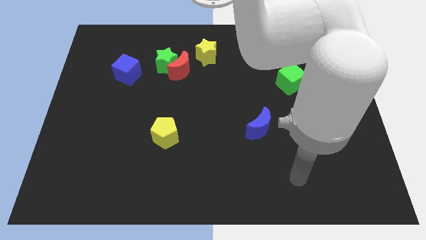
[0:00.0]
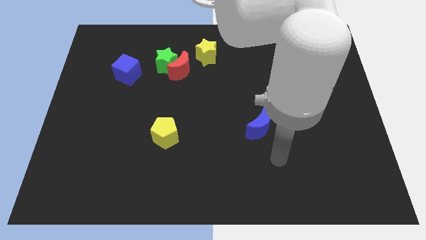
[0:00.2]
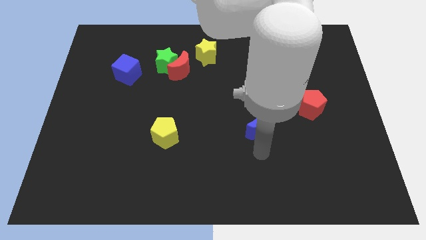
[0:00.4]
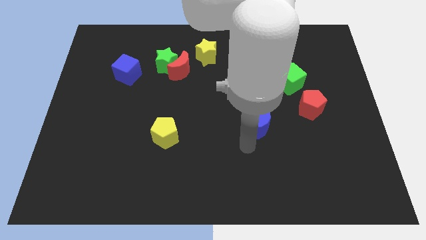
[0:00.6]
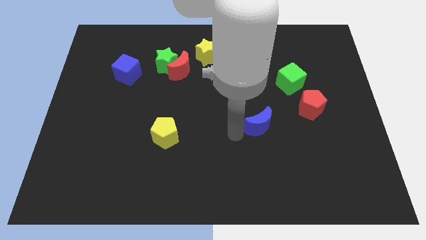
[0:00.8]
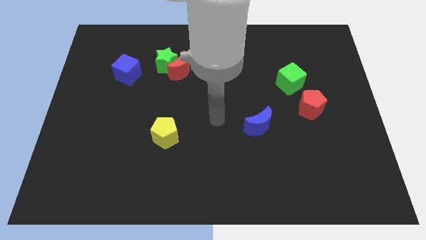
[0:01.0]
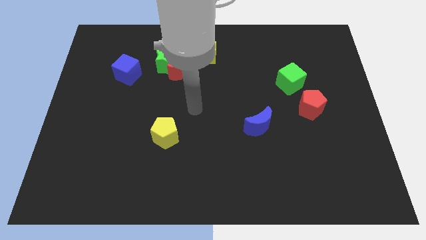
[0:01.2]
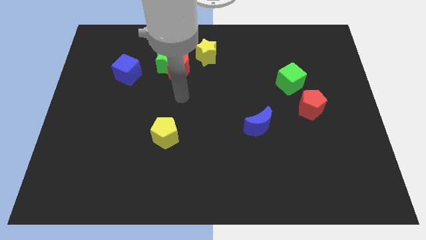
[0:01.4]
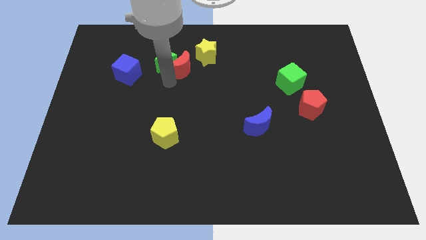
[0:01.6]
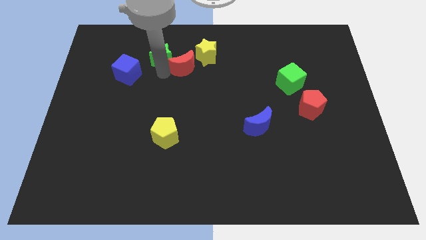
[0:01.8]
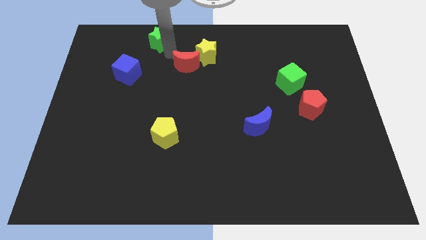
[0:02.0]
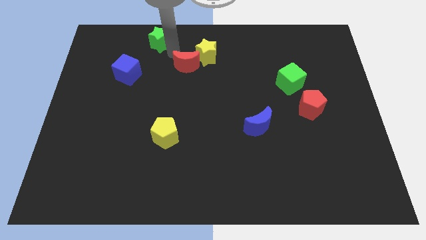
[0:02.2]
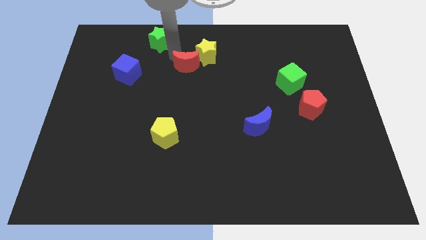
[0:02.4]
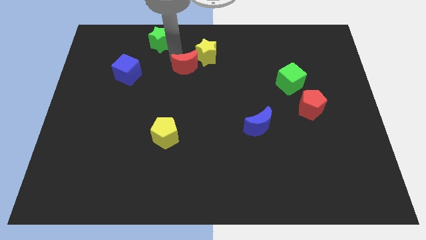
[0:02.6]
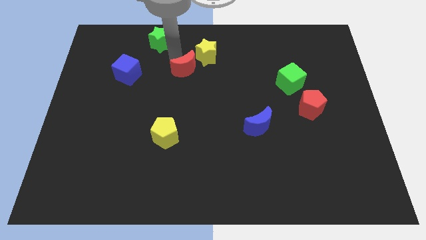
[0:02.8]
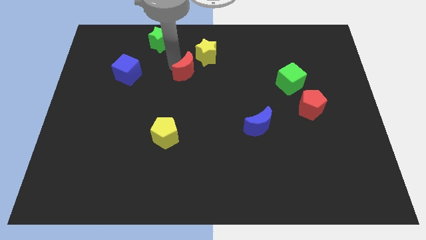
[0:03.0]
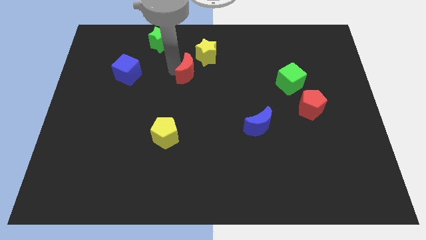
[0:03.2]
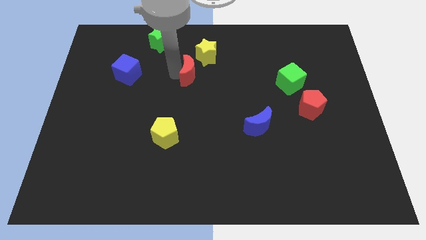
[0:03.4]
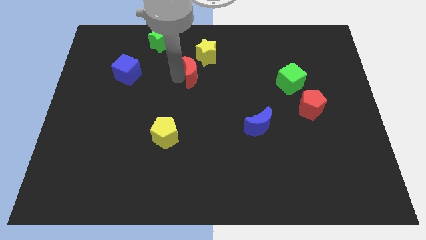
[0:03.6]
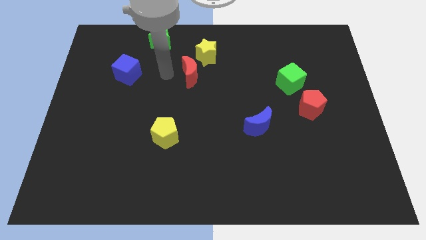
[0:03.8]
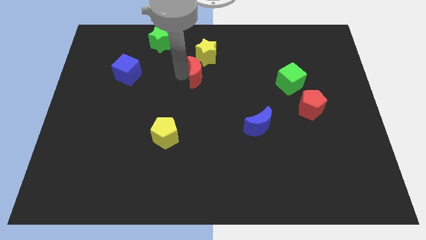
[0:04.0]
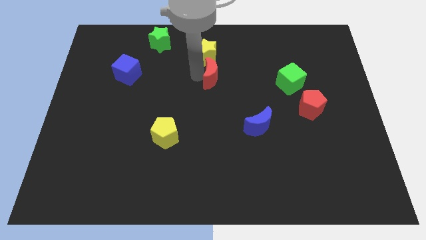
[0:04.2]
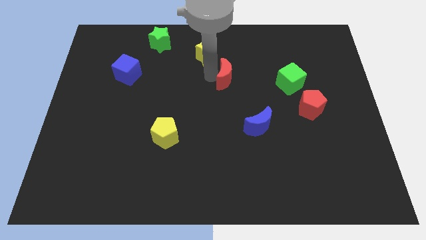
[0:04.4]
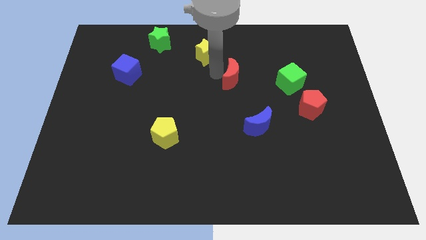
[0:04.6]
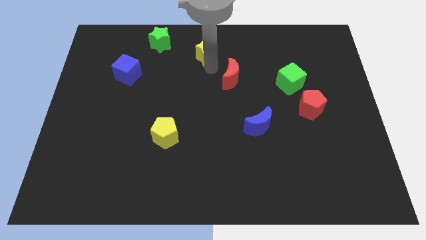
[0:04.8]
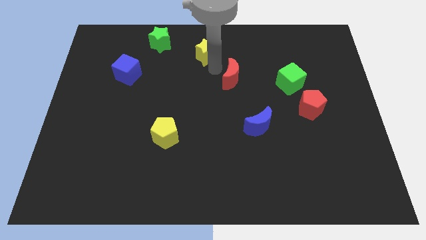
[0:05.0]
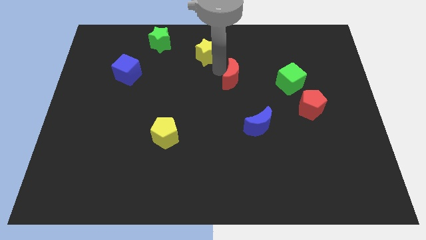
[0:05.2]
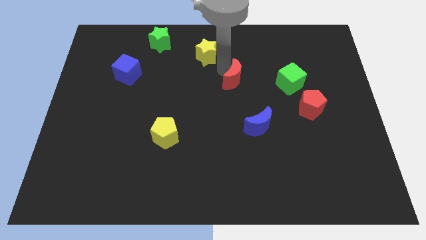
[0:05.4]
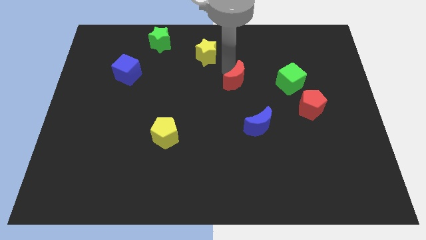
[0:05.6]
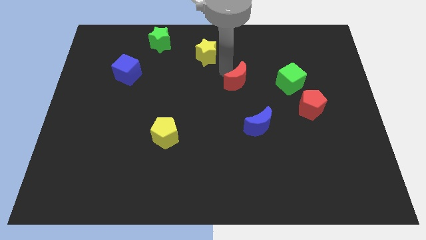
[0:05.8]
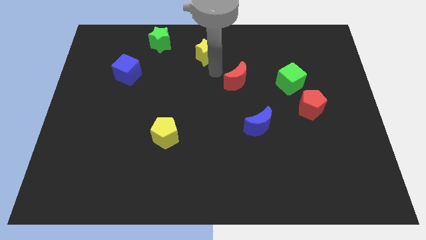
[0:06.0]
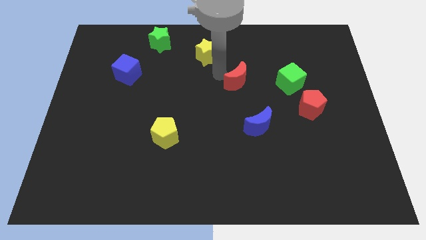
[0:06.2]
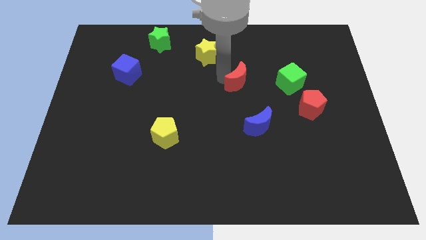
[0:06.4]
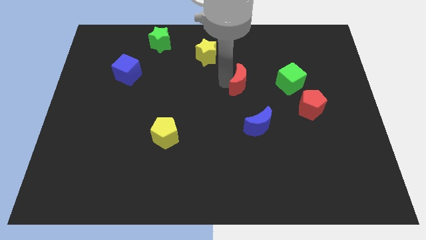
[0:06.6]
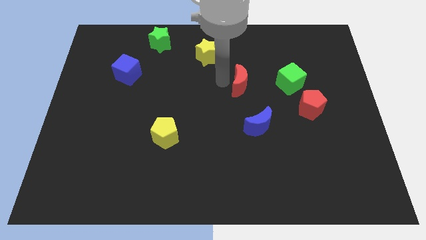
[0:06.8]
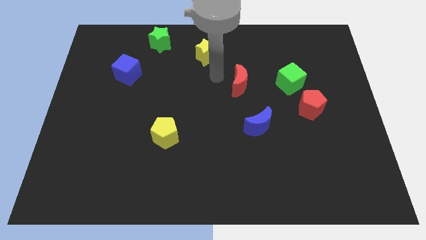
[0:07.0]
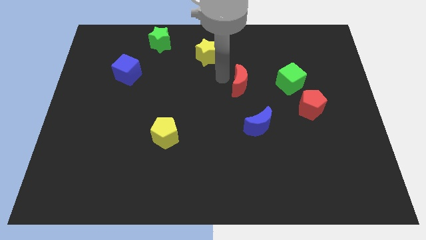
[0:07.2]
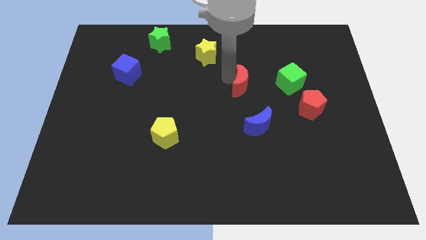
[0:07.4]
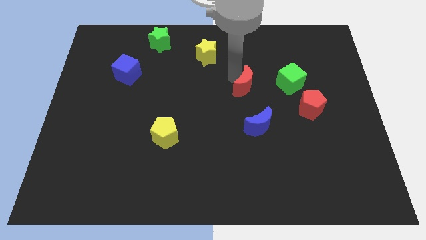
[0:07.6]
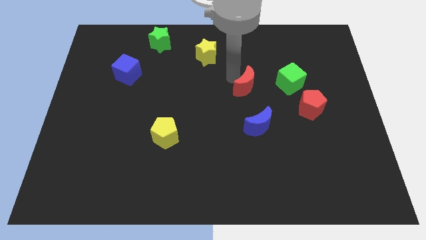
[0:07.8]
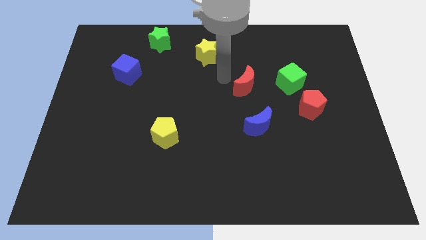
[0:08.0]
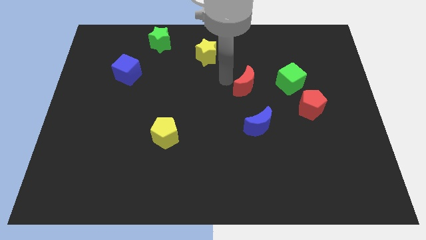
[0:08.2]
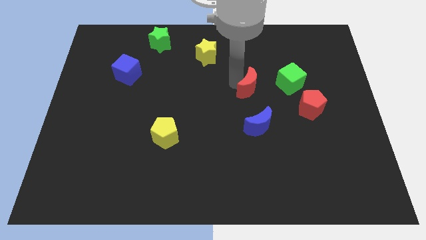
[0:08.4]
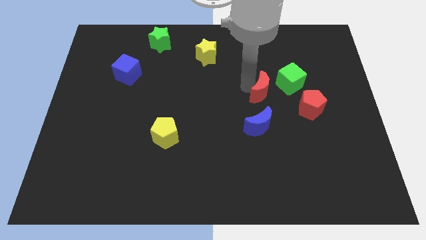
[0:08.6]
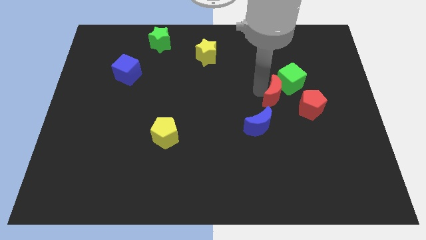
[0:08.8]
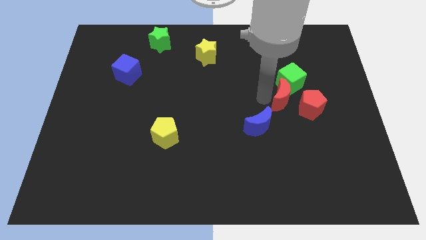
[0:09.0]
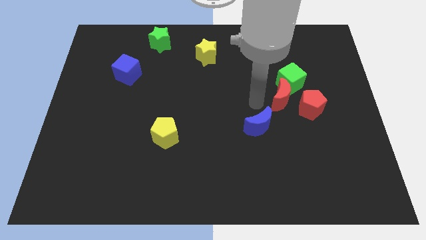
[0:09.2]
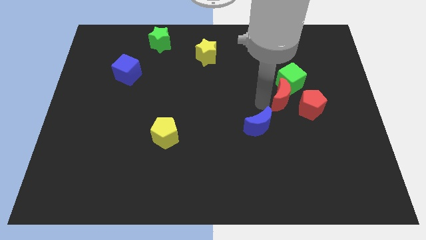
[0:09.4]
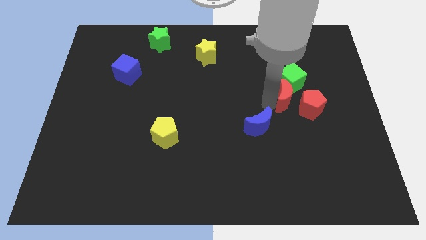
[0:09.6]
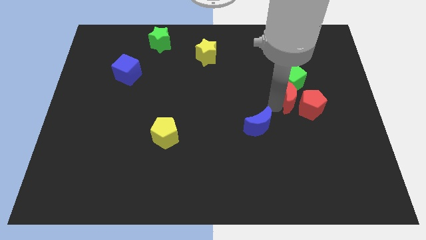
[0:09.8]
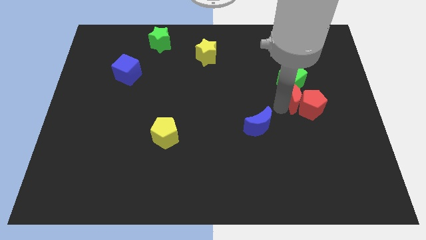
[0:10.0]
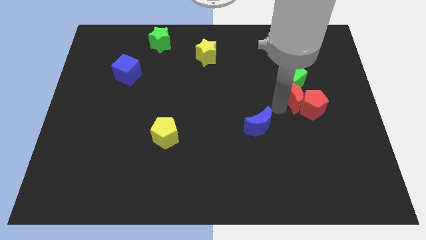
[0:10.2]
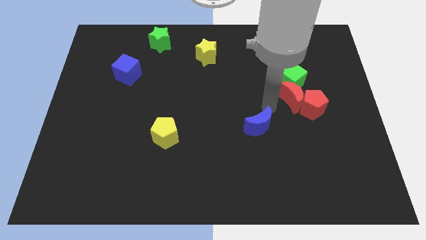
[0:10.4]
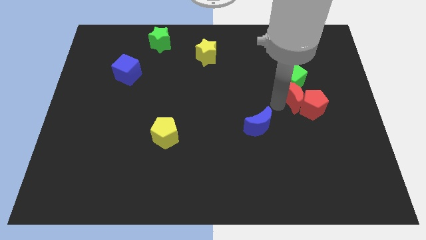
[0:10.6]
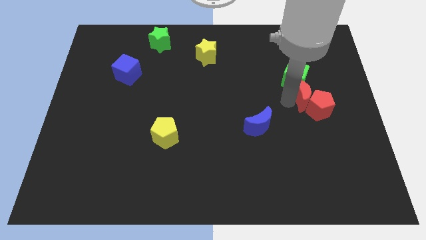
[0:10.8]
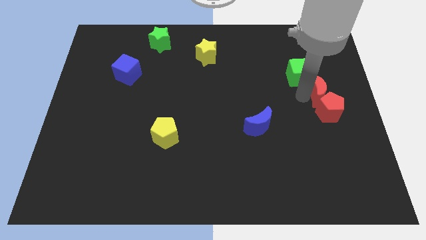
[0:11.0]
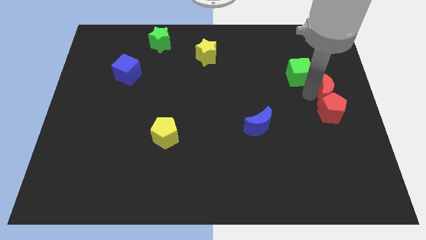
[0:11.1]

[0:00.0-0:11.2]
move the red moon to the top right side of the red pentagon

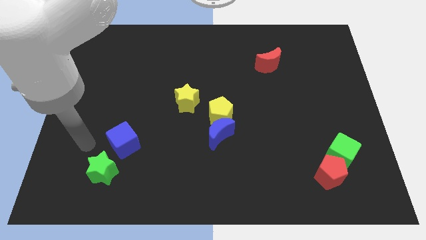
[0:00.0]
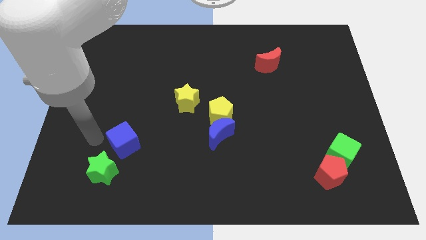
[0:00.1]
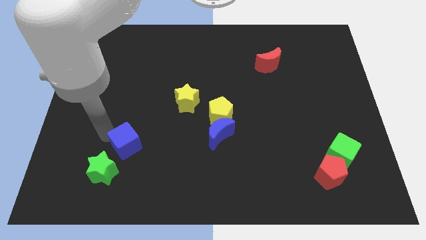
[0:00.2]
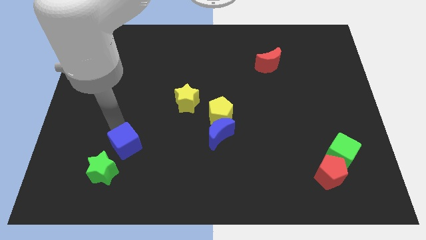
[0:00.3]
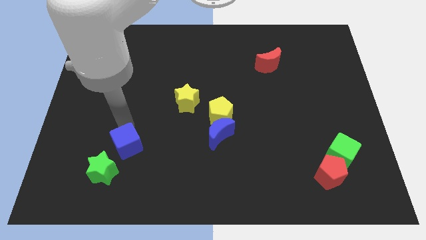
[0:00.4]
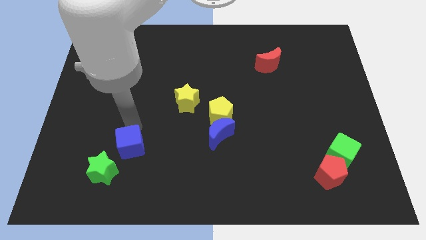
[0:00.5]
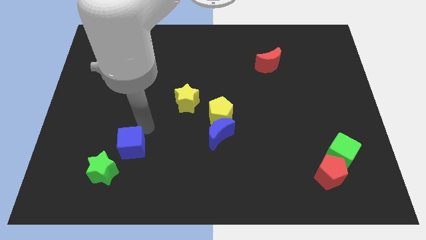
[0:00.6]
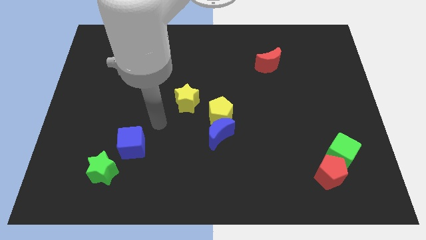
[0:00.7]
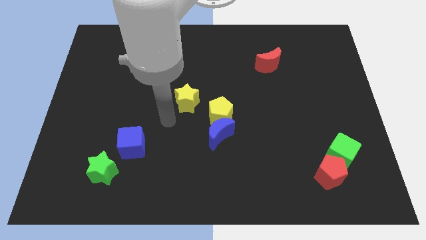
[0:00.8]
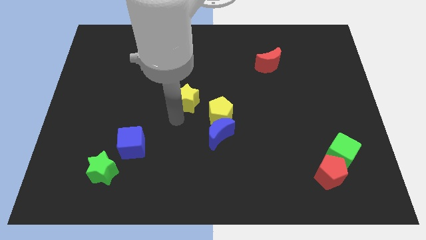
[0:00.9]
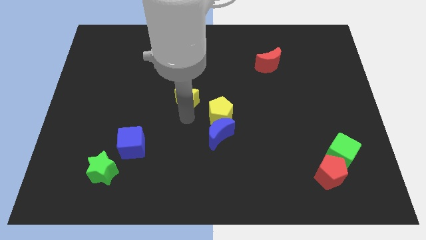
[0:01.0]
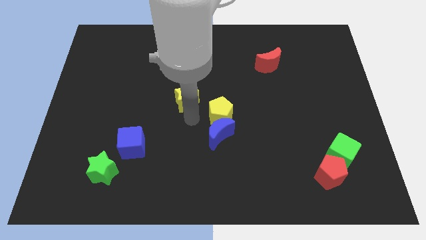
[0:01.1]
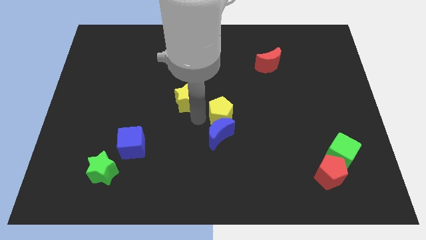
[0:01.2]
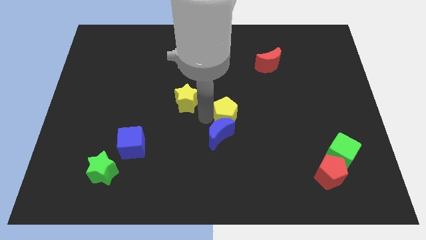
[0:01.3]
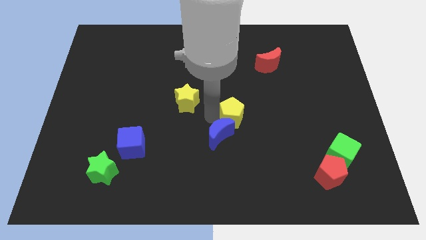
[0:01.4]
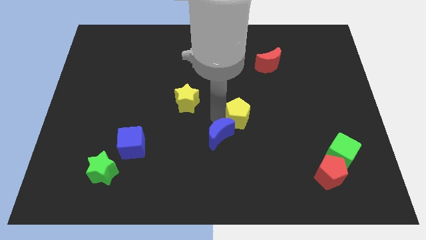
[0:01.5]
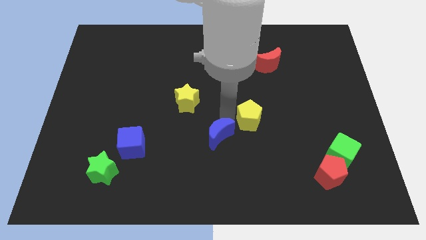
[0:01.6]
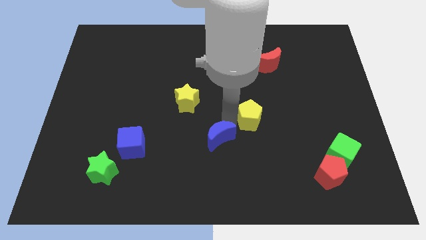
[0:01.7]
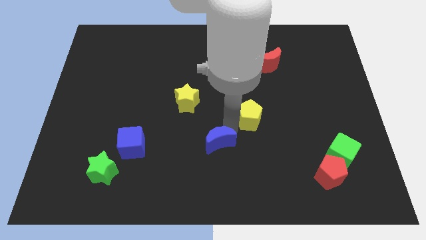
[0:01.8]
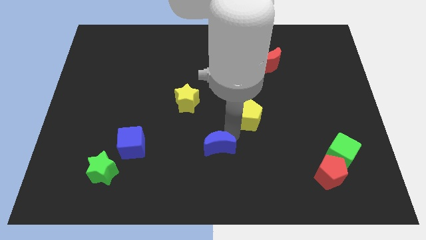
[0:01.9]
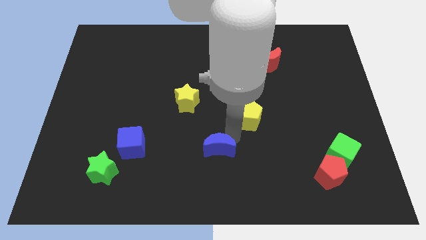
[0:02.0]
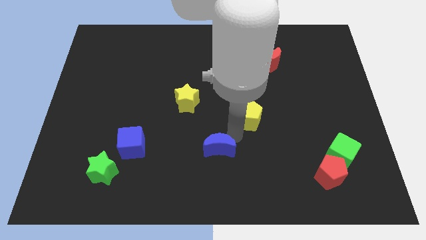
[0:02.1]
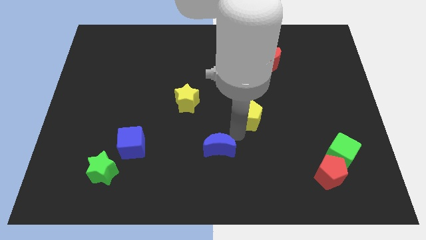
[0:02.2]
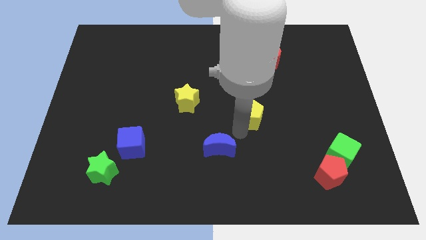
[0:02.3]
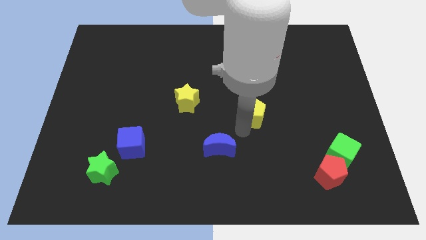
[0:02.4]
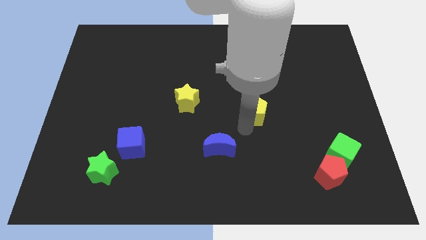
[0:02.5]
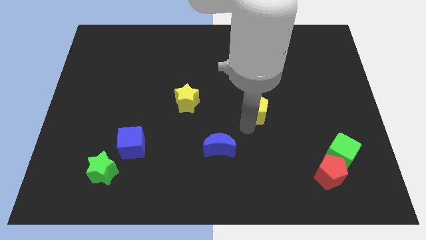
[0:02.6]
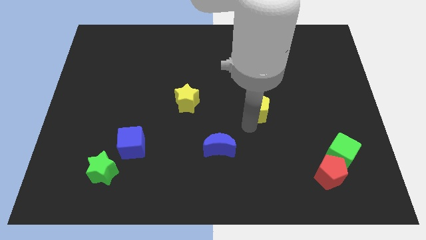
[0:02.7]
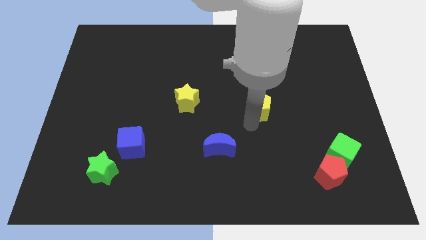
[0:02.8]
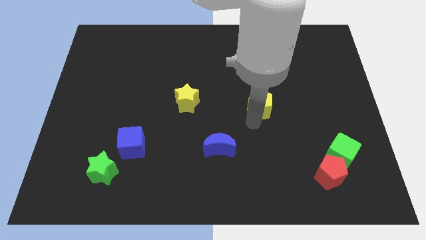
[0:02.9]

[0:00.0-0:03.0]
put the yellow pentagon to the bottom of the red moon
